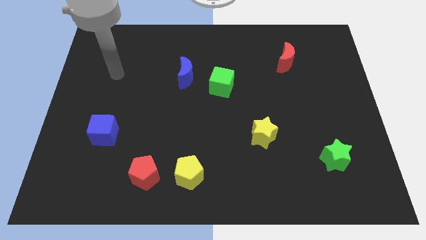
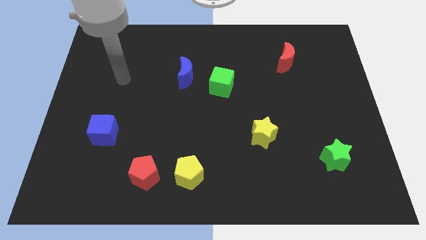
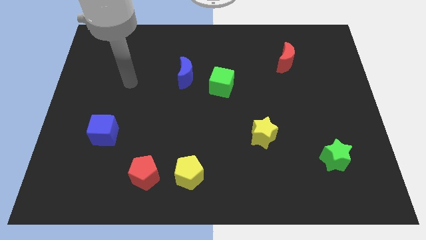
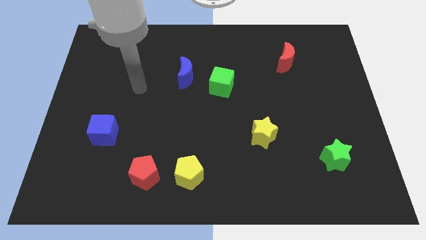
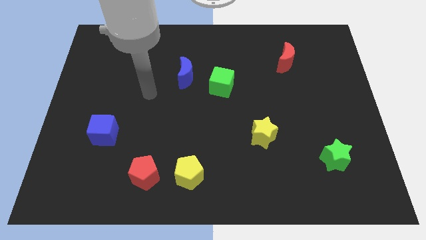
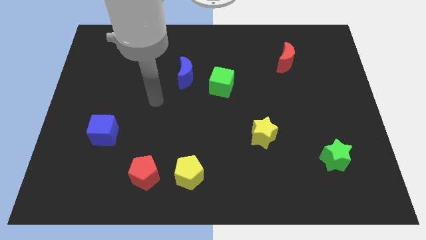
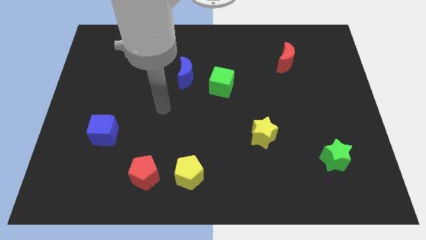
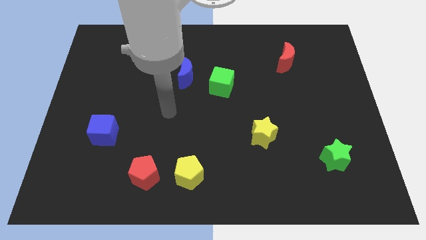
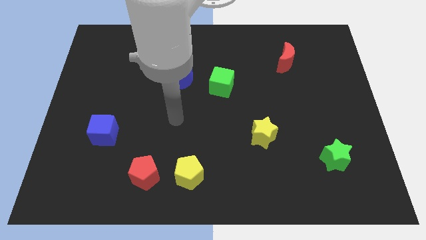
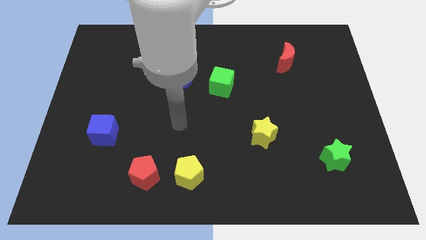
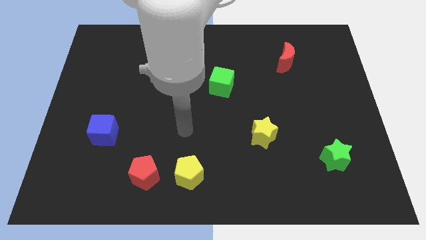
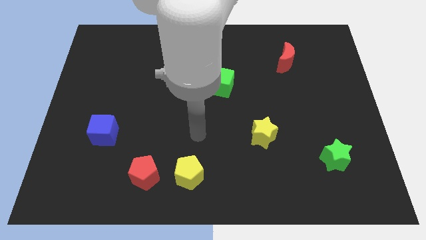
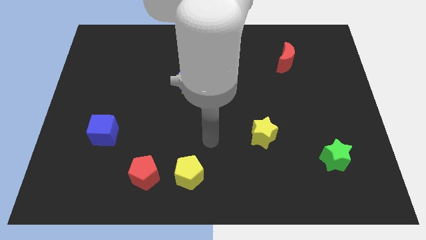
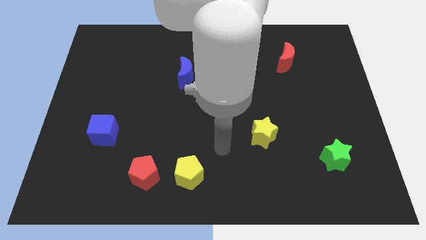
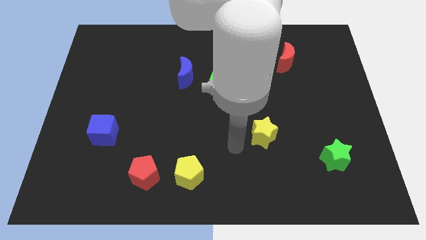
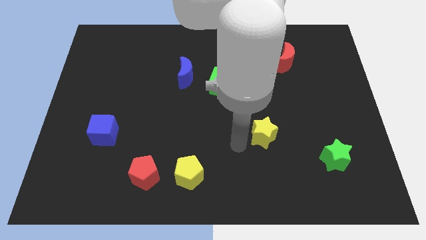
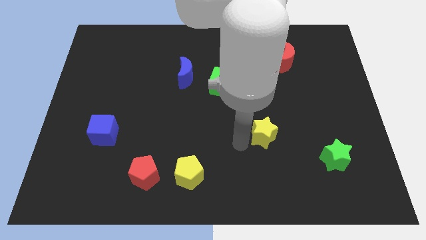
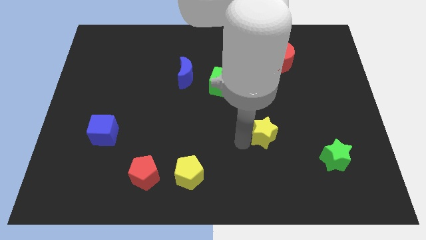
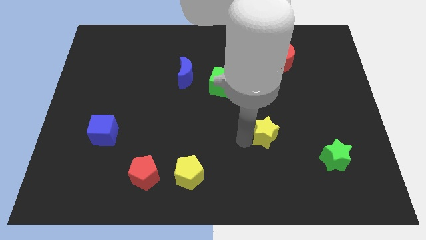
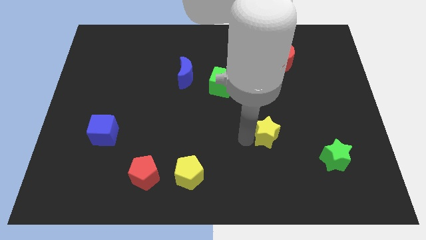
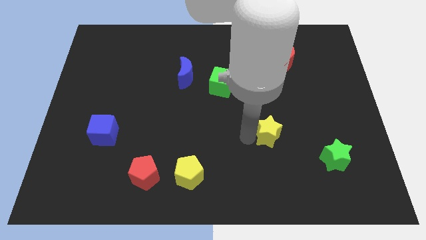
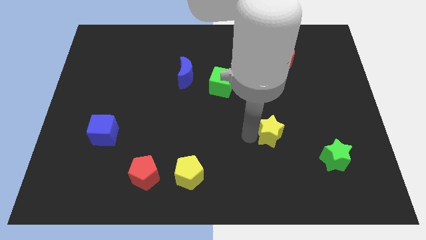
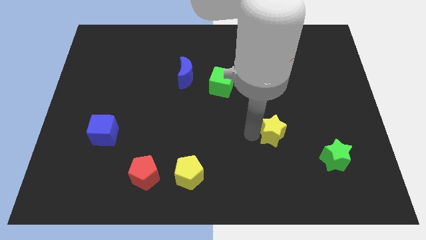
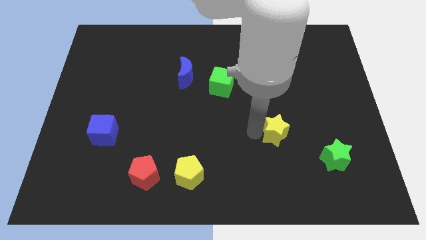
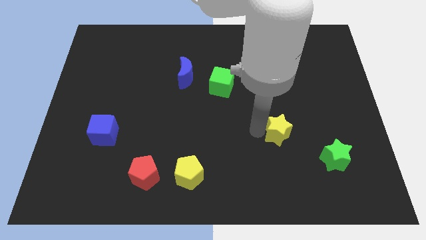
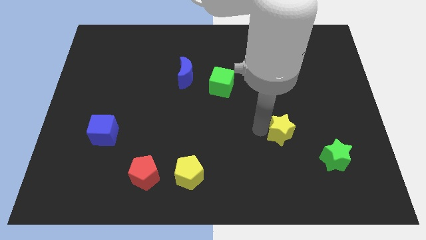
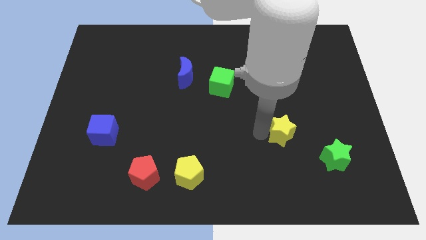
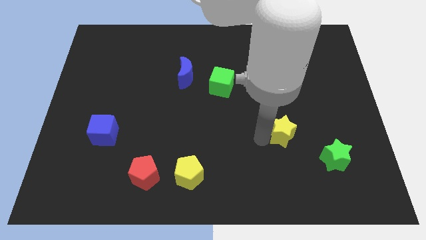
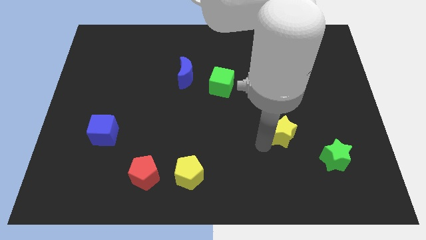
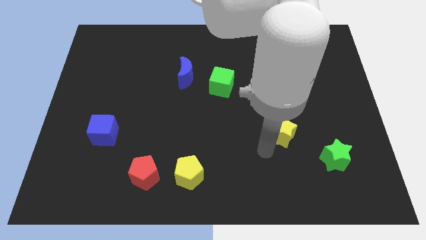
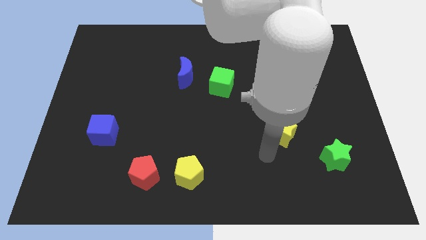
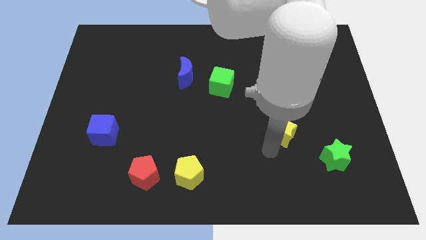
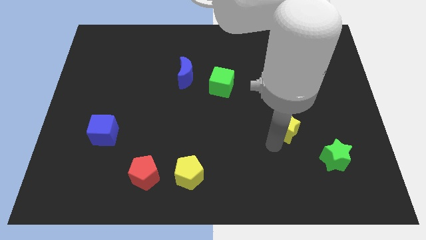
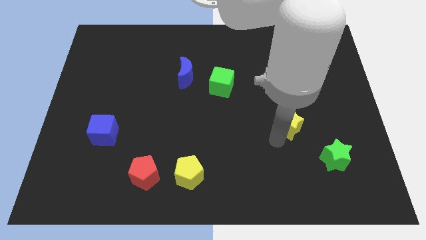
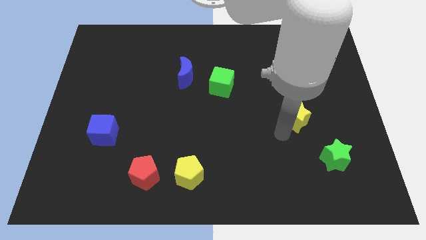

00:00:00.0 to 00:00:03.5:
slightly move the yellow star upwards and right

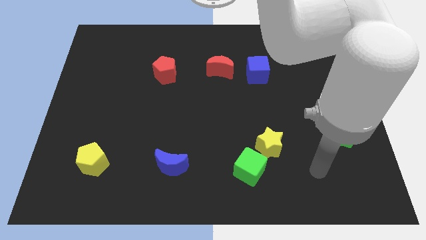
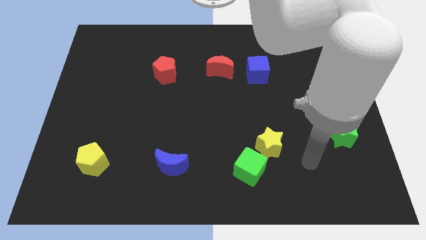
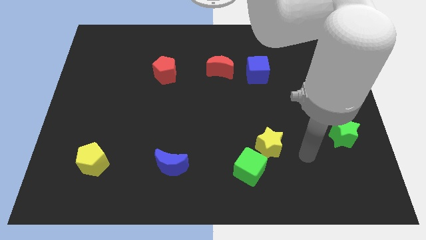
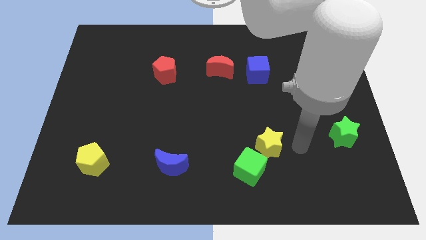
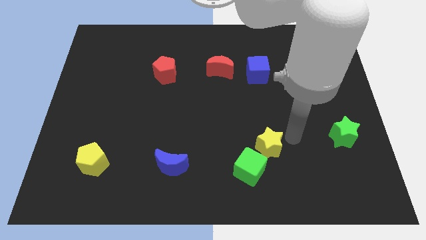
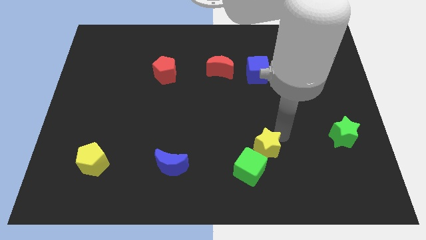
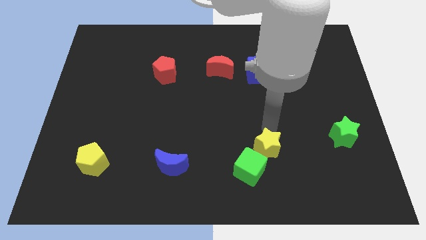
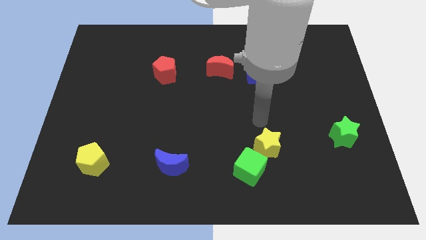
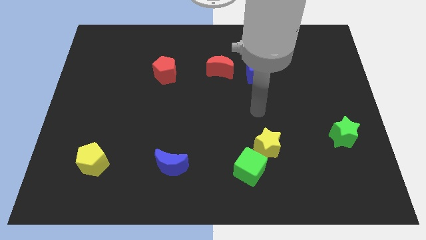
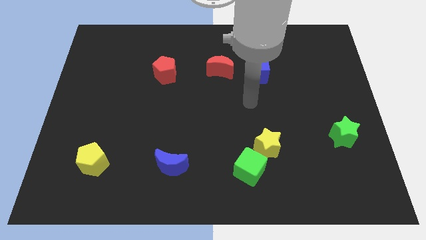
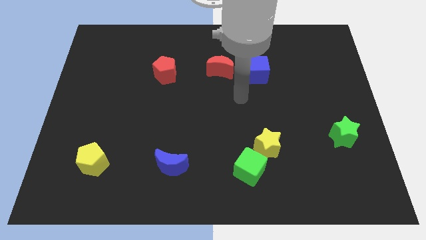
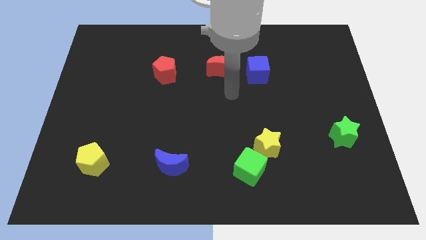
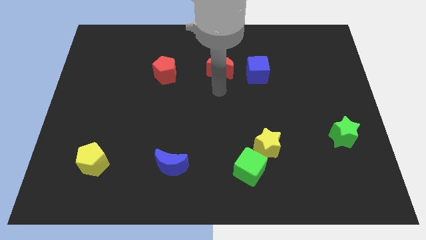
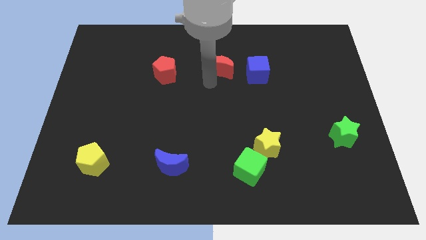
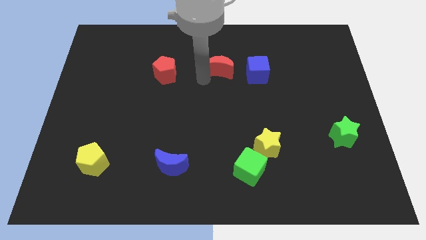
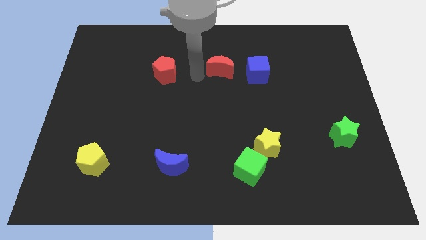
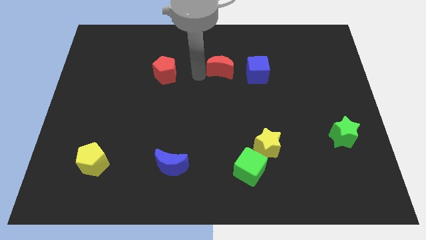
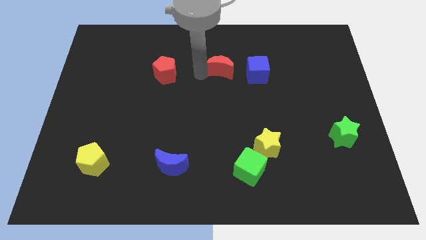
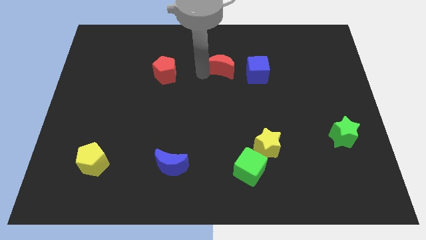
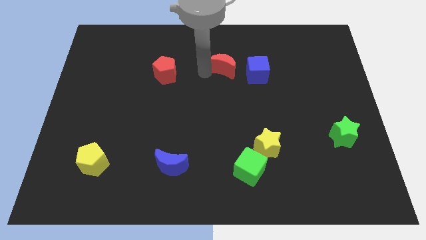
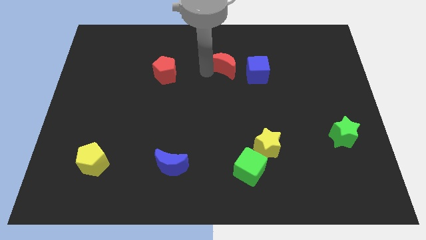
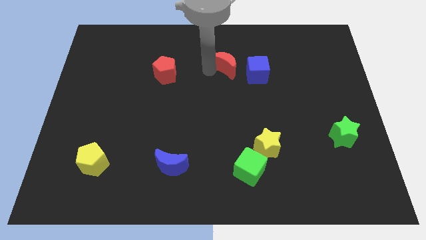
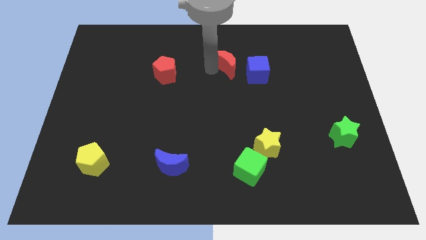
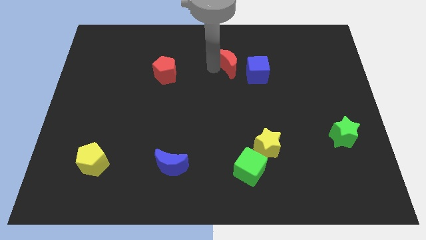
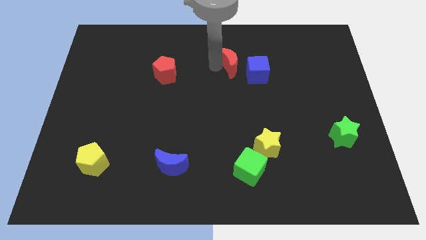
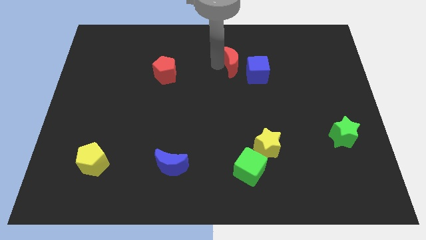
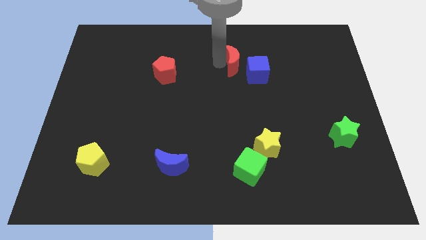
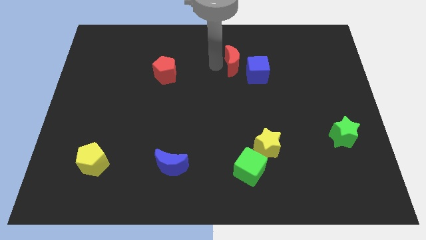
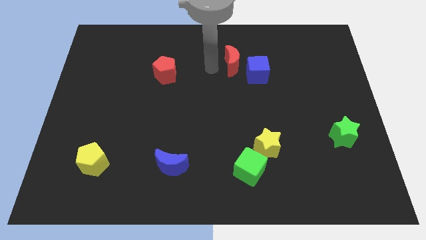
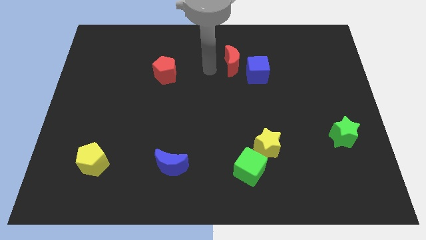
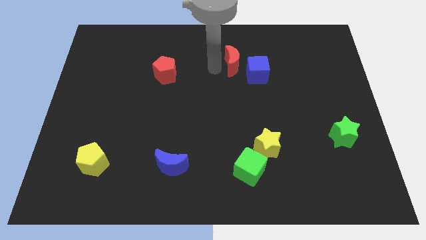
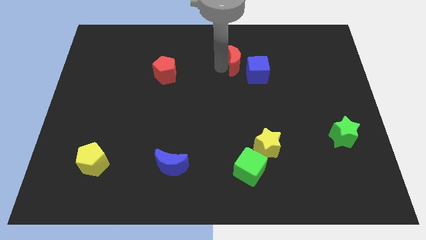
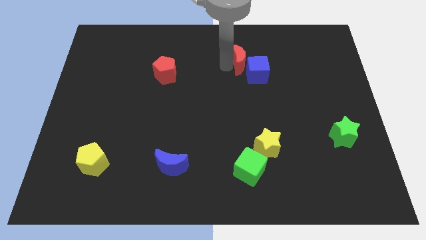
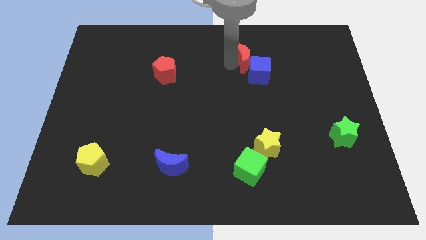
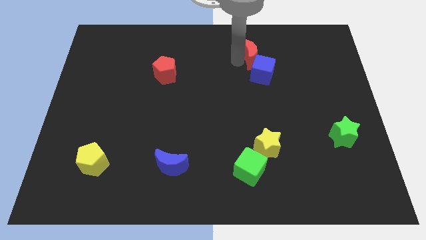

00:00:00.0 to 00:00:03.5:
slightly push the red moon to the right

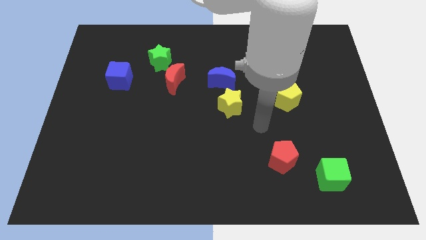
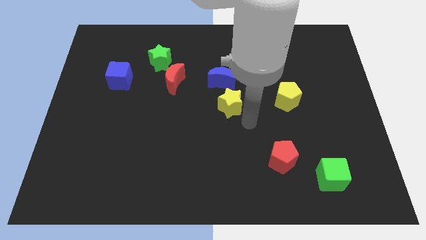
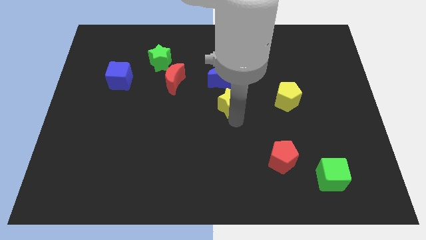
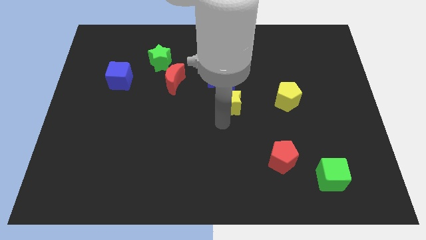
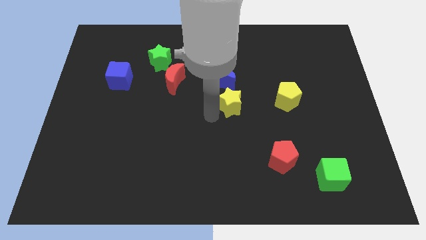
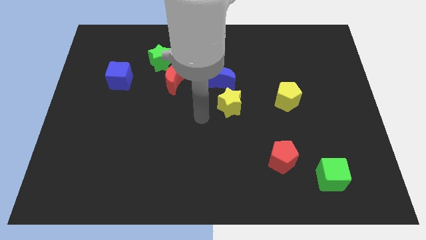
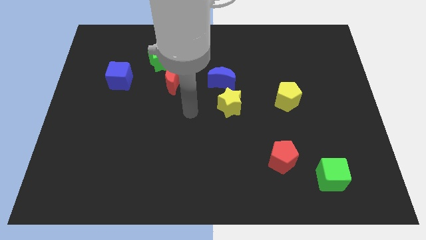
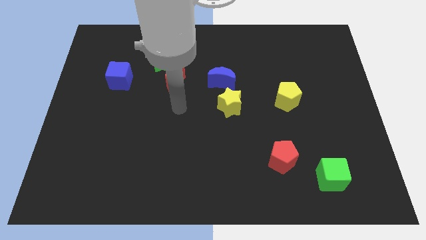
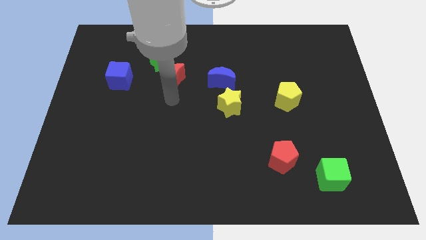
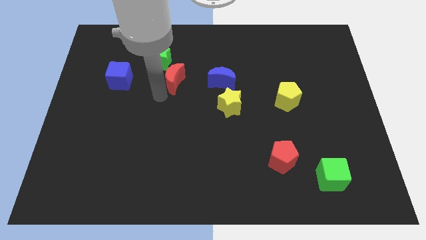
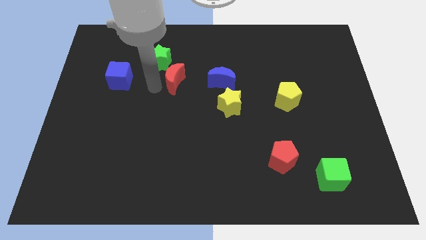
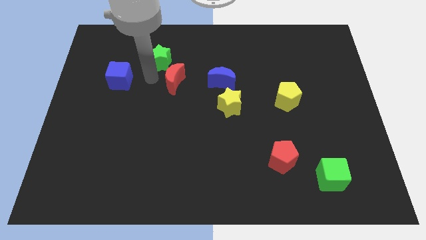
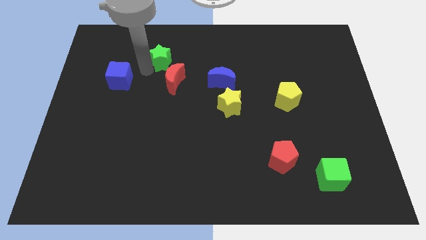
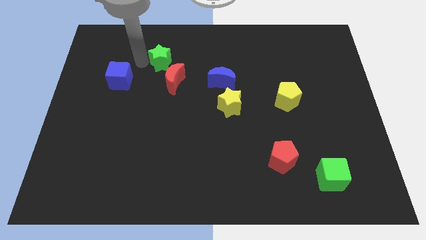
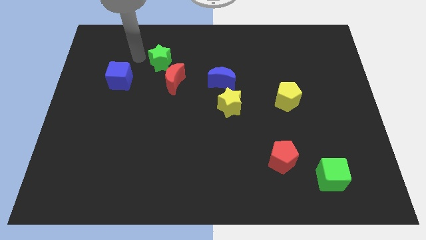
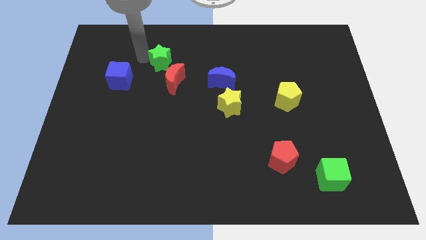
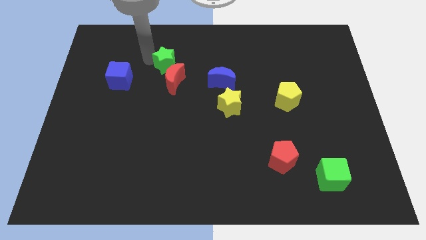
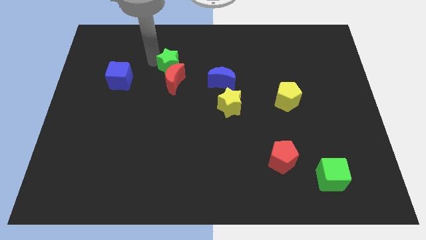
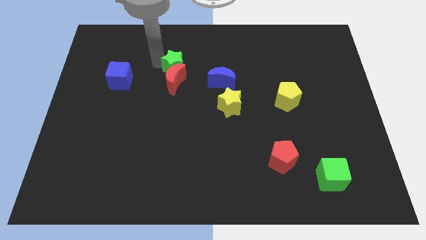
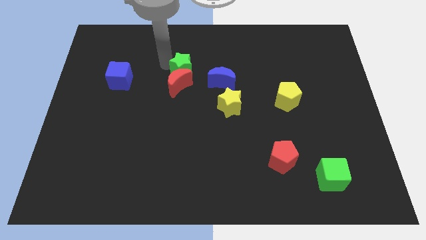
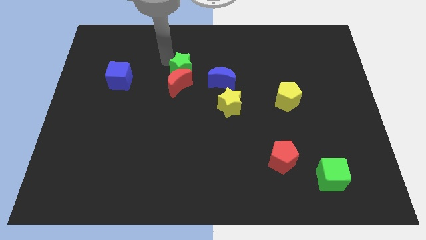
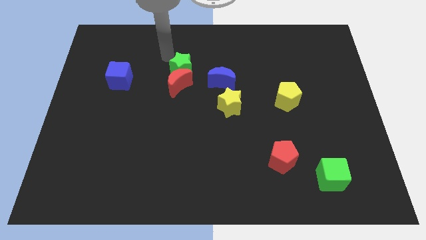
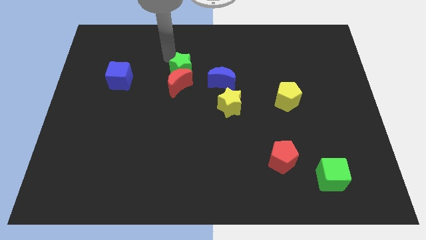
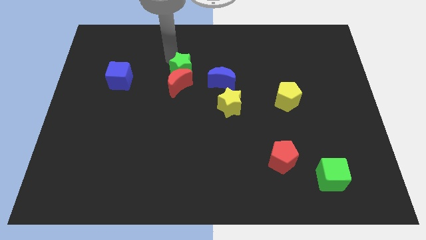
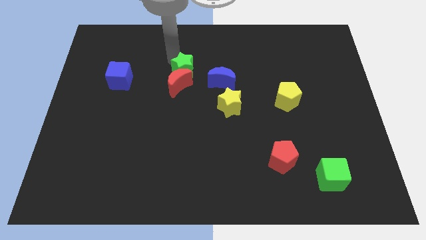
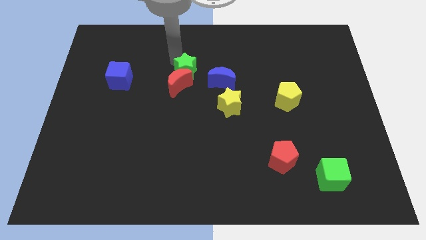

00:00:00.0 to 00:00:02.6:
slightly move the green star diagonally down and right
